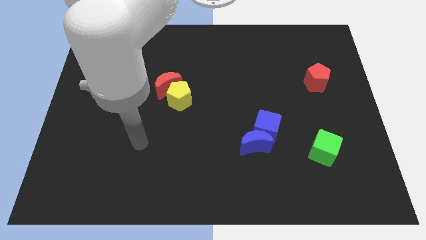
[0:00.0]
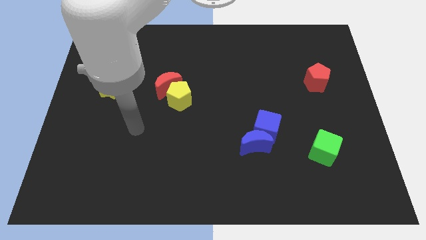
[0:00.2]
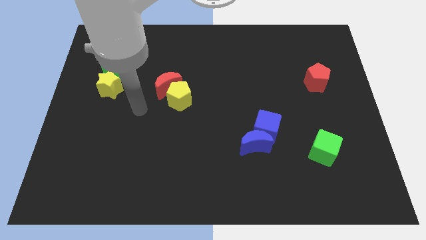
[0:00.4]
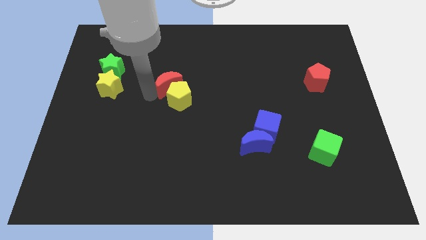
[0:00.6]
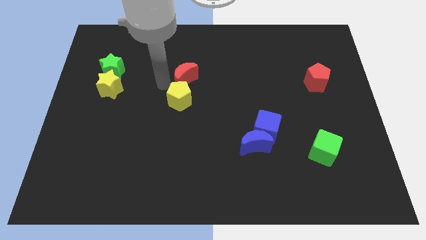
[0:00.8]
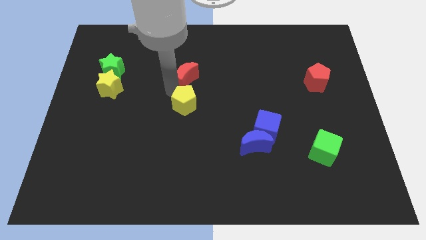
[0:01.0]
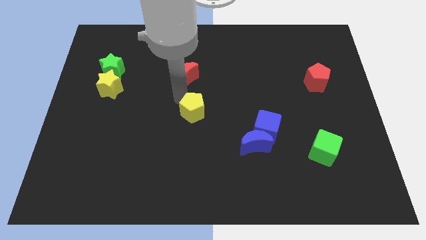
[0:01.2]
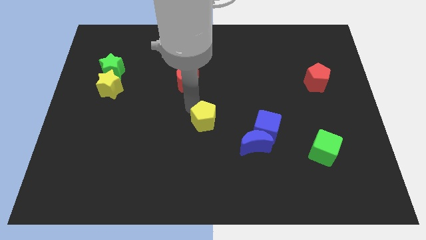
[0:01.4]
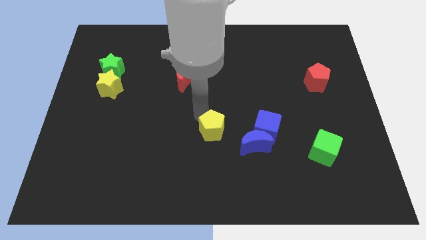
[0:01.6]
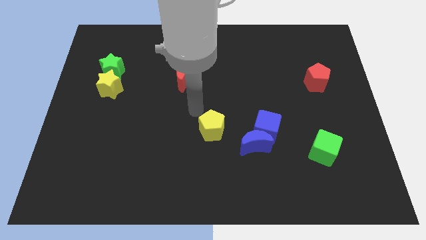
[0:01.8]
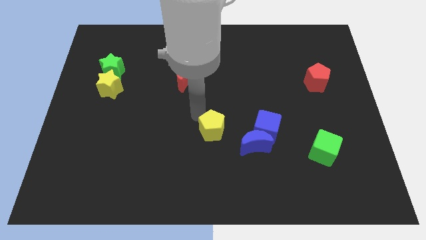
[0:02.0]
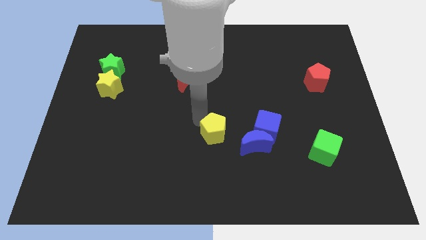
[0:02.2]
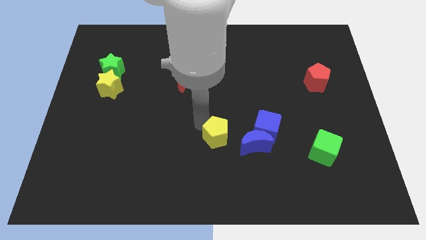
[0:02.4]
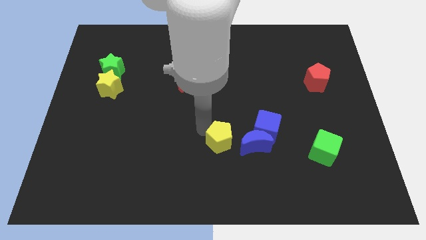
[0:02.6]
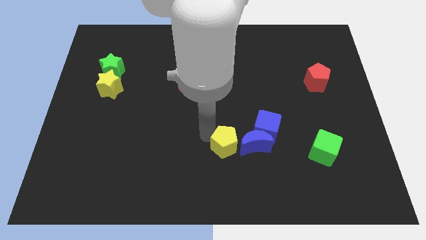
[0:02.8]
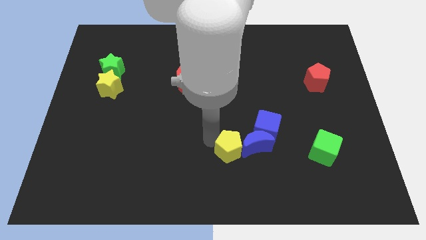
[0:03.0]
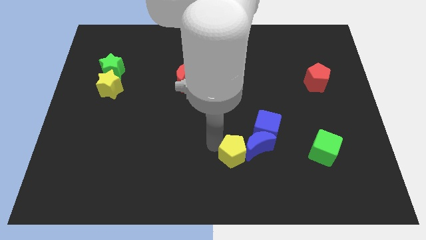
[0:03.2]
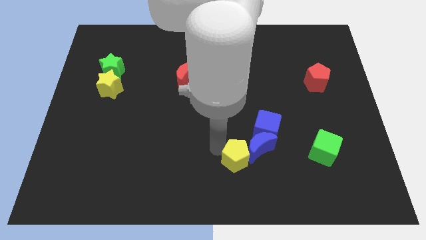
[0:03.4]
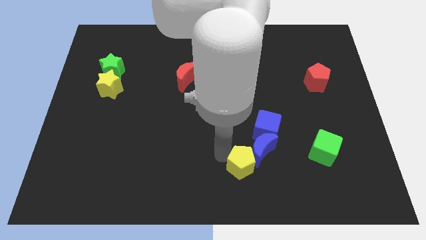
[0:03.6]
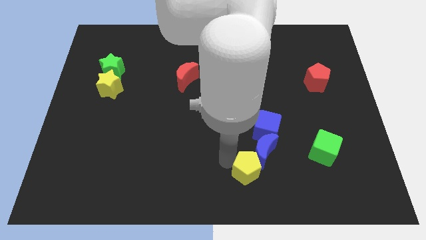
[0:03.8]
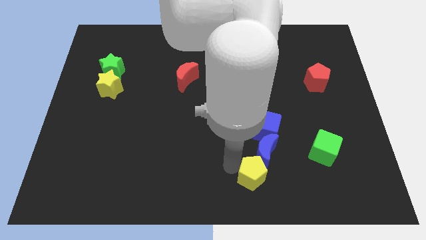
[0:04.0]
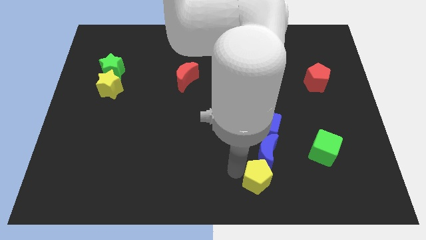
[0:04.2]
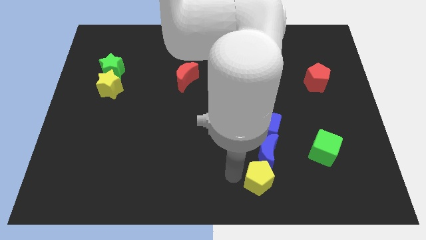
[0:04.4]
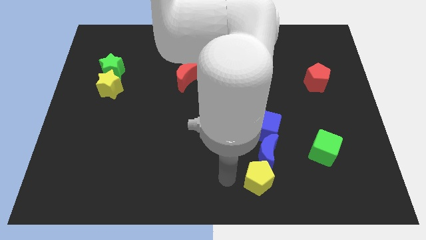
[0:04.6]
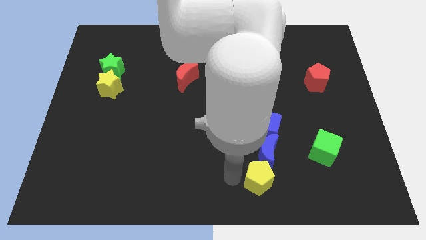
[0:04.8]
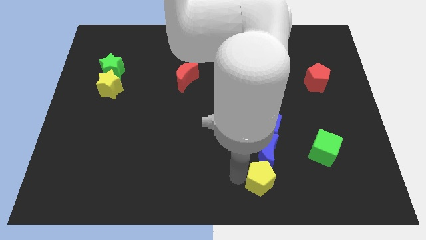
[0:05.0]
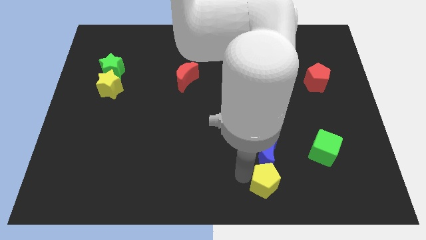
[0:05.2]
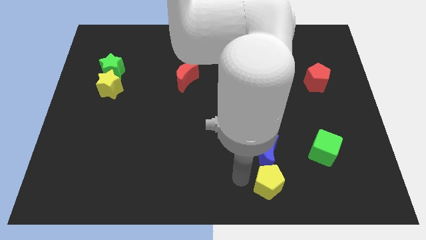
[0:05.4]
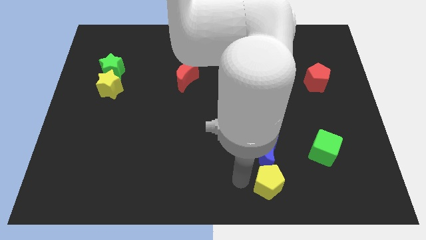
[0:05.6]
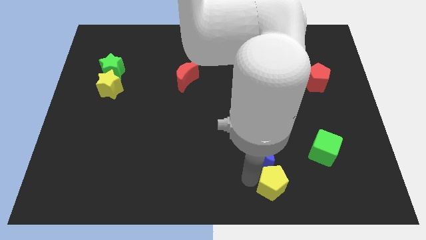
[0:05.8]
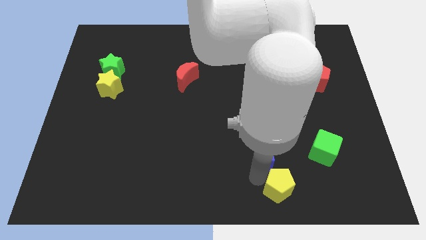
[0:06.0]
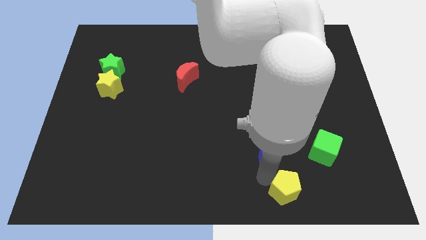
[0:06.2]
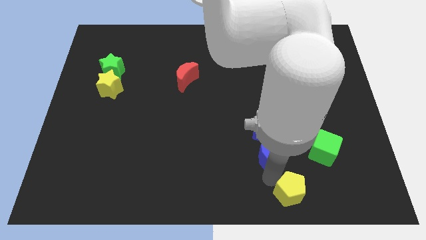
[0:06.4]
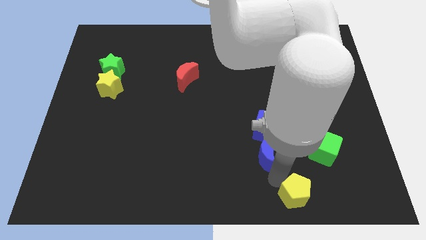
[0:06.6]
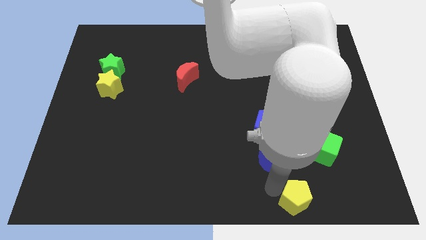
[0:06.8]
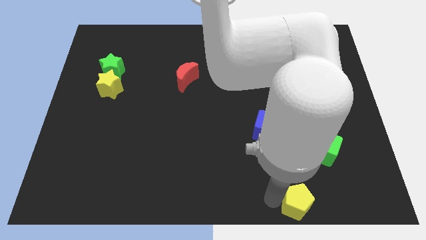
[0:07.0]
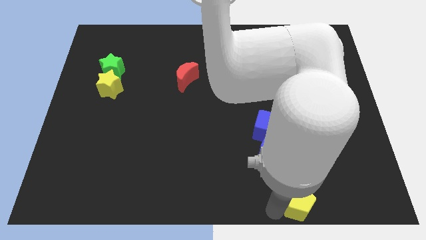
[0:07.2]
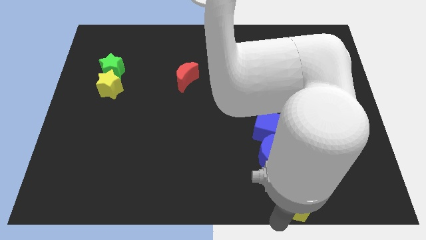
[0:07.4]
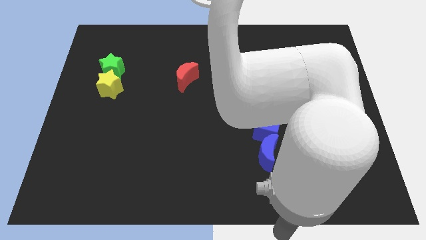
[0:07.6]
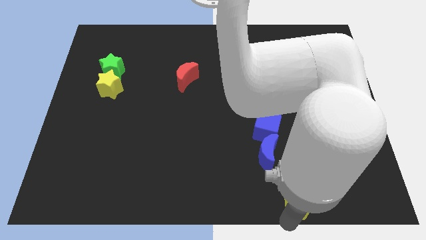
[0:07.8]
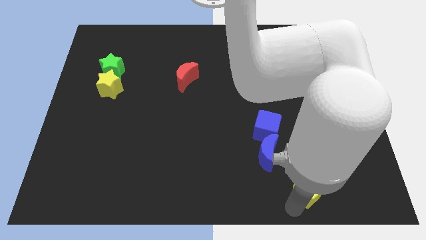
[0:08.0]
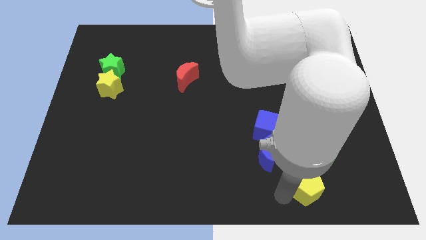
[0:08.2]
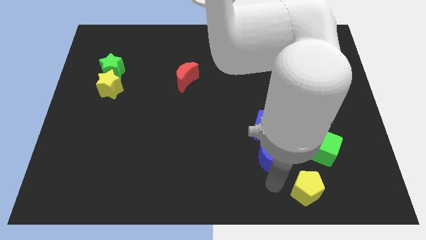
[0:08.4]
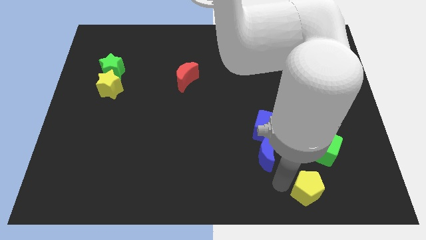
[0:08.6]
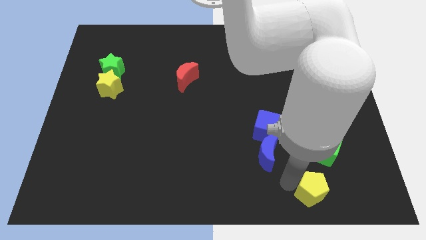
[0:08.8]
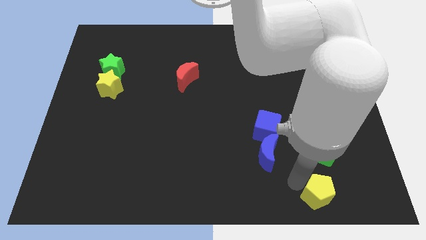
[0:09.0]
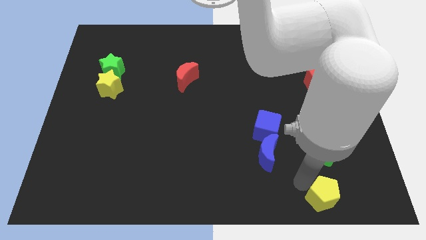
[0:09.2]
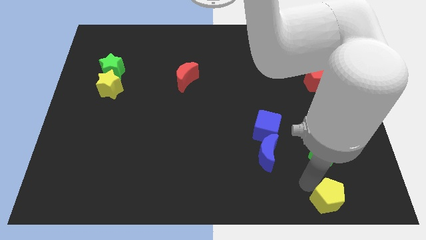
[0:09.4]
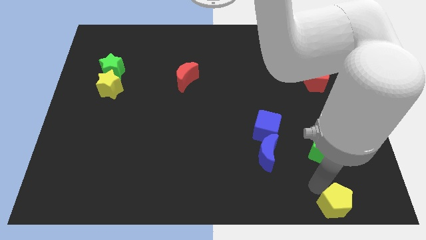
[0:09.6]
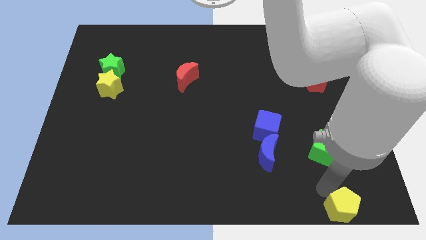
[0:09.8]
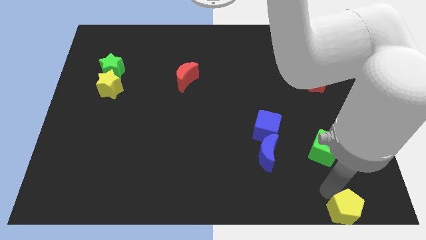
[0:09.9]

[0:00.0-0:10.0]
put the yellow pentagon to the lower right corner

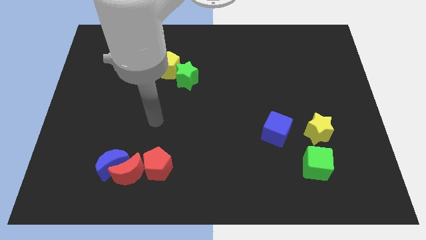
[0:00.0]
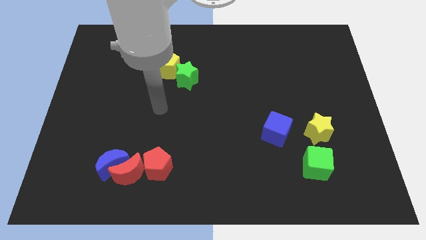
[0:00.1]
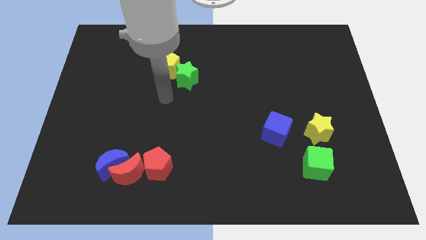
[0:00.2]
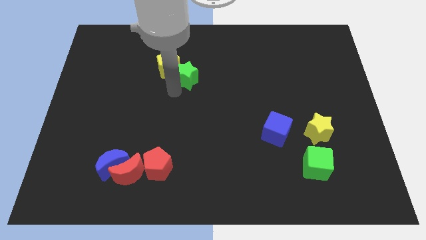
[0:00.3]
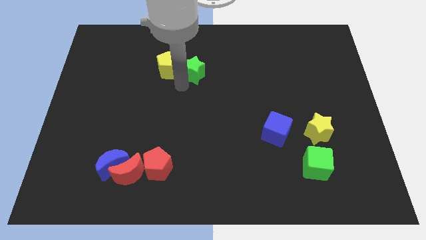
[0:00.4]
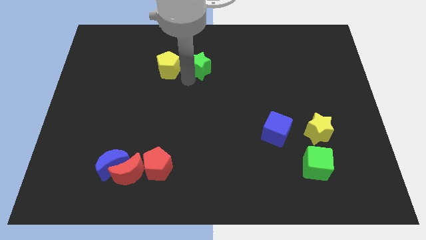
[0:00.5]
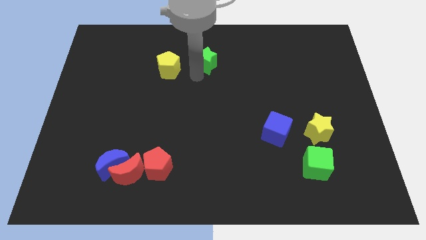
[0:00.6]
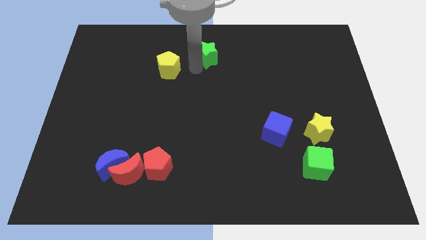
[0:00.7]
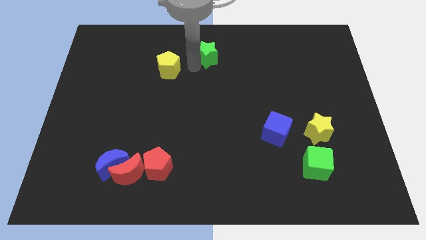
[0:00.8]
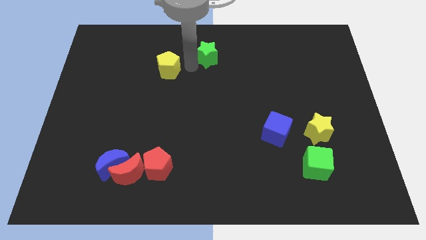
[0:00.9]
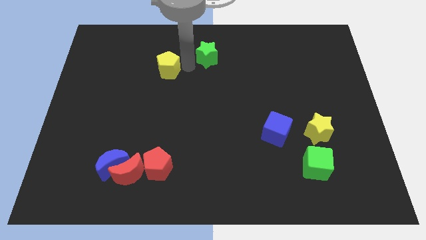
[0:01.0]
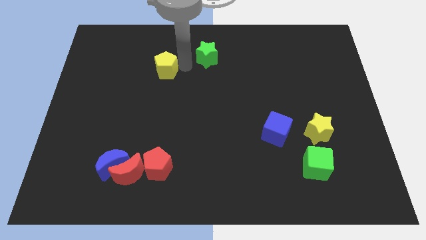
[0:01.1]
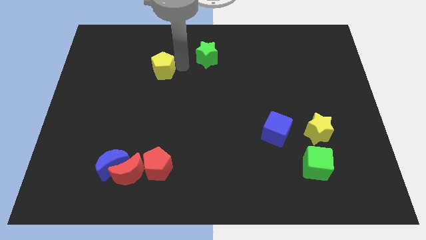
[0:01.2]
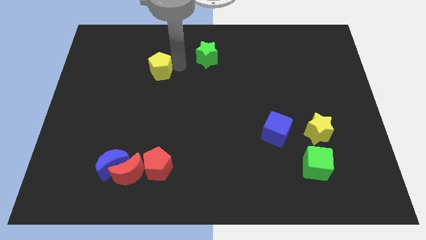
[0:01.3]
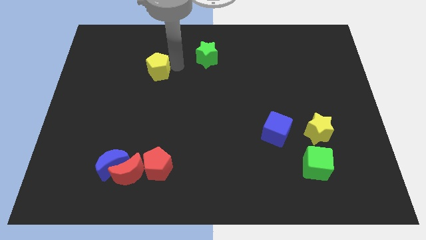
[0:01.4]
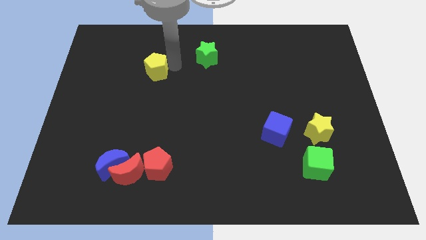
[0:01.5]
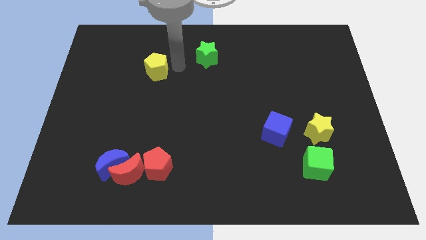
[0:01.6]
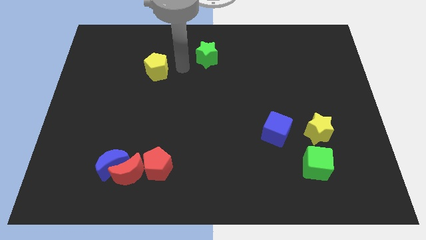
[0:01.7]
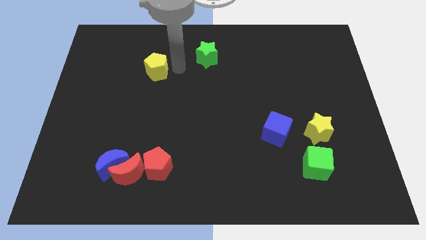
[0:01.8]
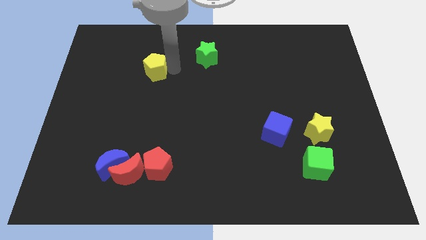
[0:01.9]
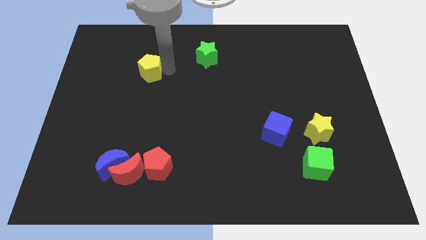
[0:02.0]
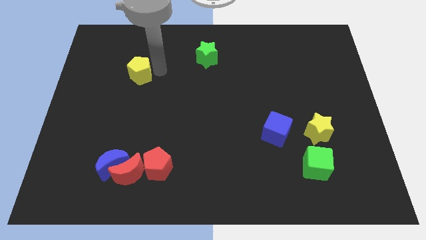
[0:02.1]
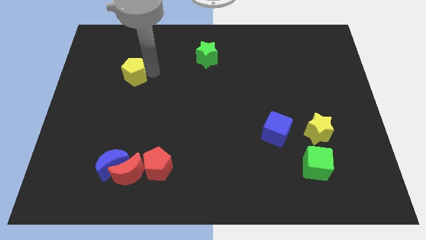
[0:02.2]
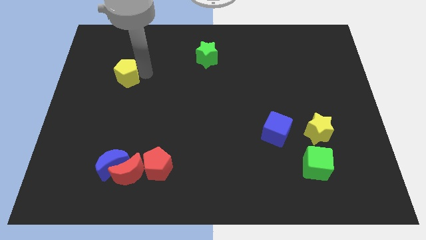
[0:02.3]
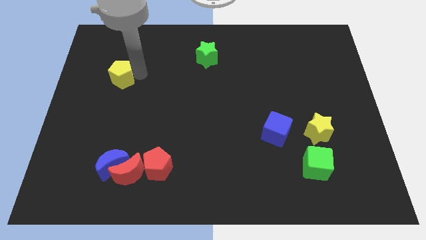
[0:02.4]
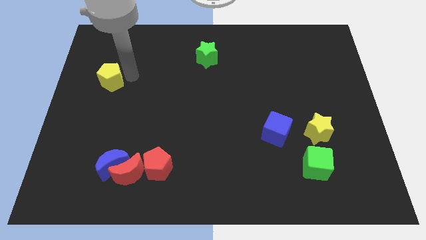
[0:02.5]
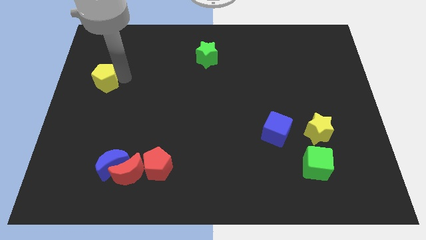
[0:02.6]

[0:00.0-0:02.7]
put the yellow pentagon to the center left
